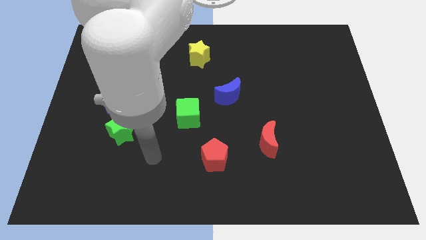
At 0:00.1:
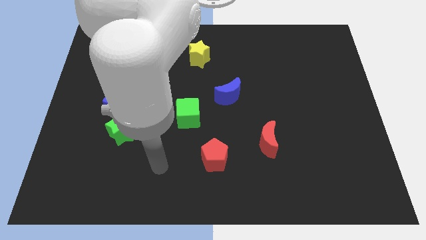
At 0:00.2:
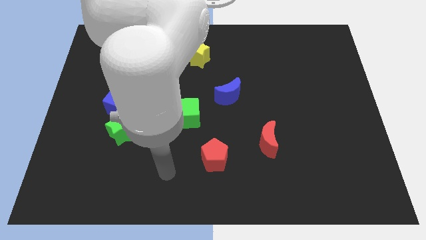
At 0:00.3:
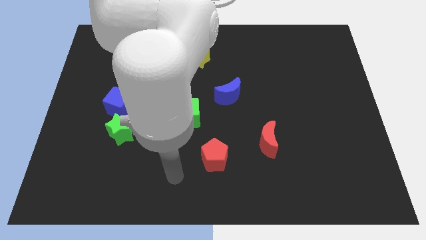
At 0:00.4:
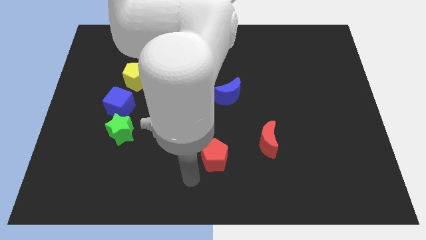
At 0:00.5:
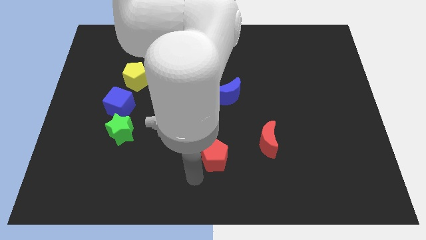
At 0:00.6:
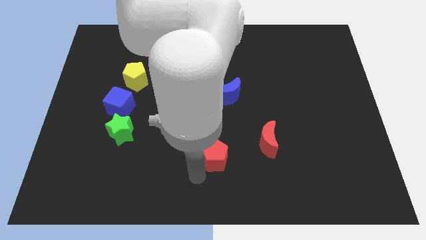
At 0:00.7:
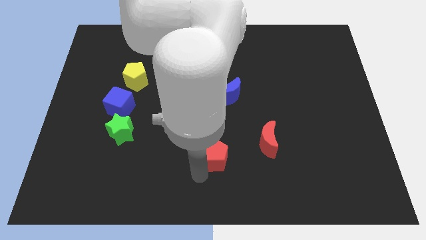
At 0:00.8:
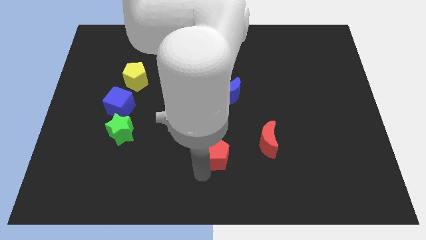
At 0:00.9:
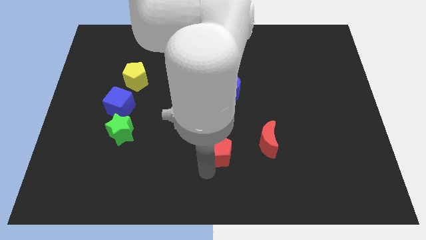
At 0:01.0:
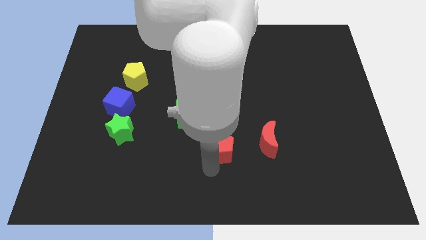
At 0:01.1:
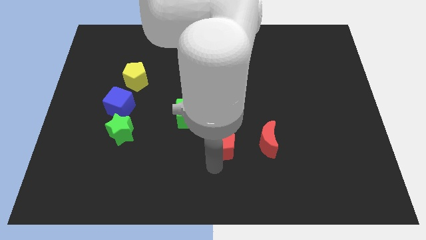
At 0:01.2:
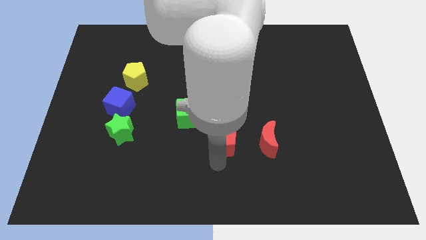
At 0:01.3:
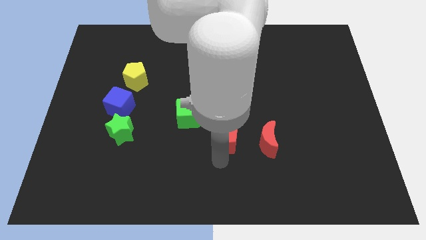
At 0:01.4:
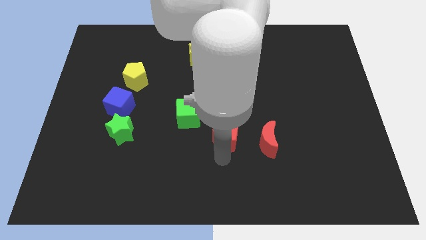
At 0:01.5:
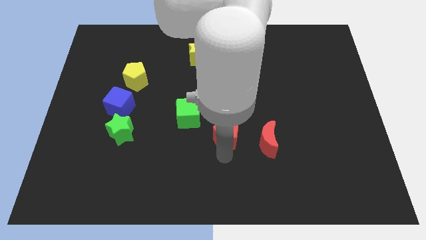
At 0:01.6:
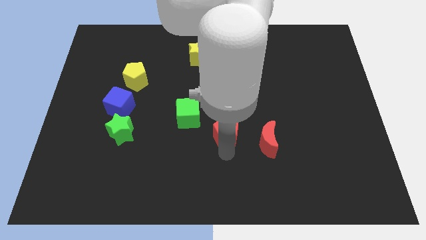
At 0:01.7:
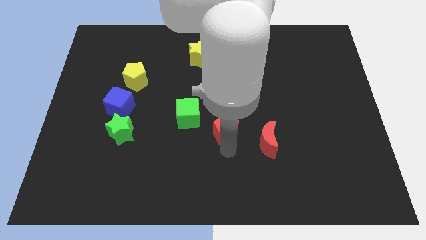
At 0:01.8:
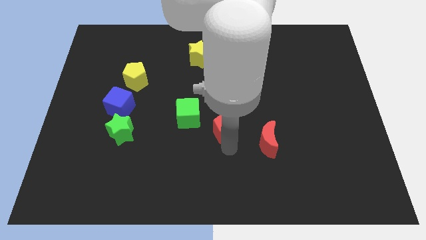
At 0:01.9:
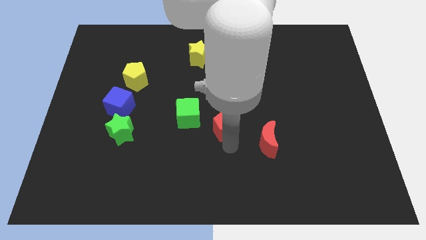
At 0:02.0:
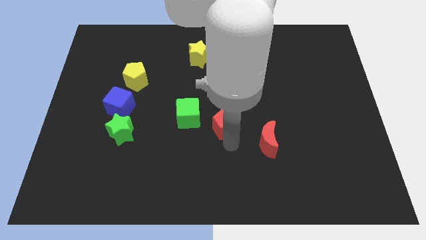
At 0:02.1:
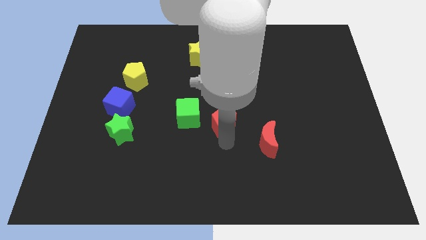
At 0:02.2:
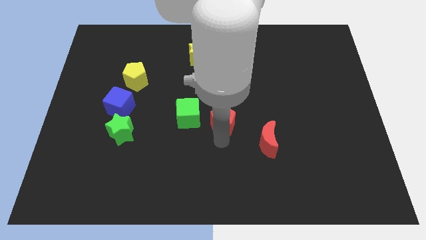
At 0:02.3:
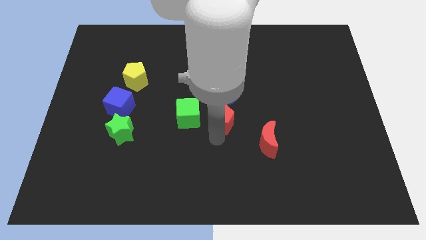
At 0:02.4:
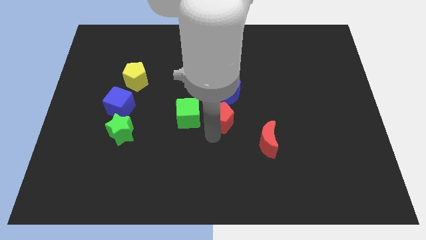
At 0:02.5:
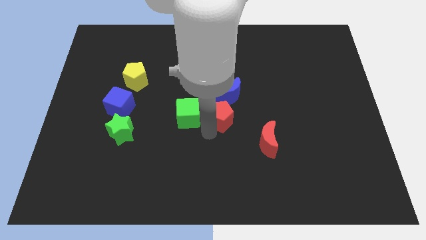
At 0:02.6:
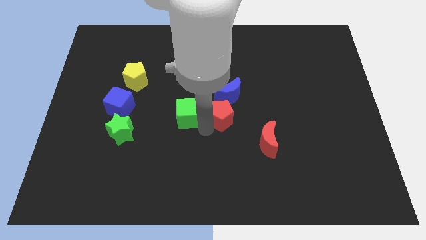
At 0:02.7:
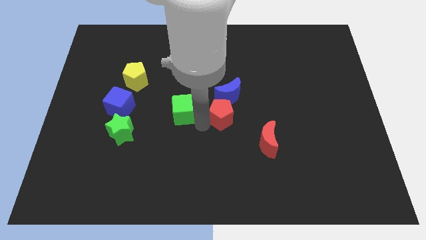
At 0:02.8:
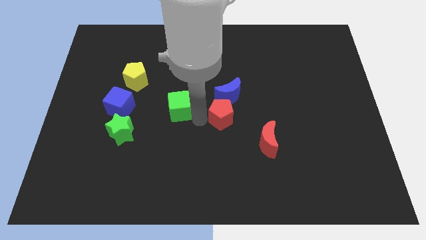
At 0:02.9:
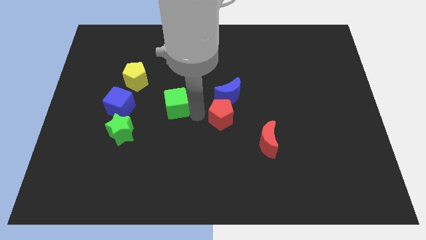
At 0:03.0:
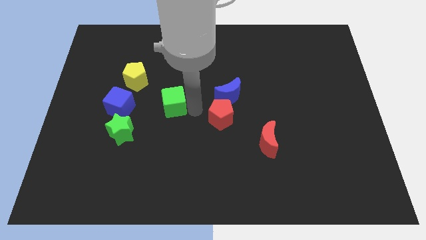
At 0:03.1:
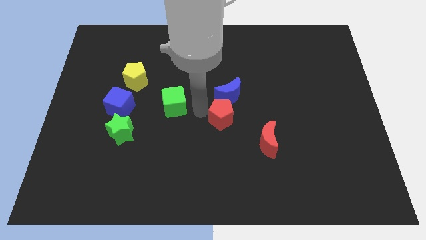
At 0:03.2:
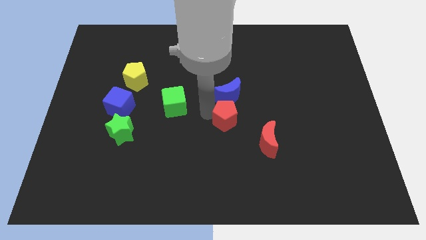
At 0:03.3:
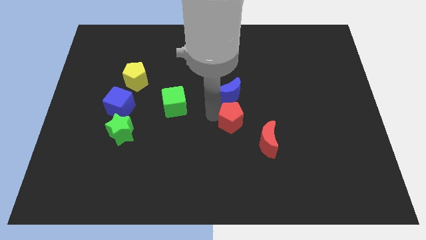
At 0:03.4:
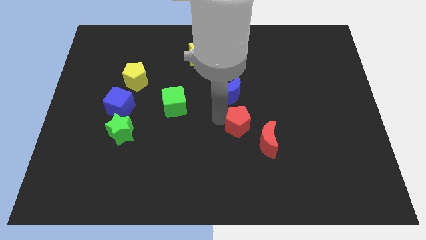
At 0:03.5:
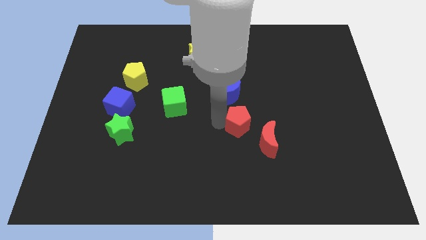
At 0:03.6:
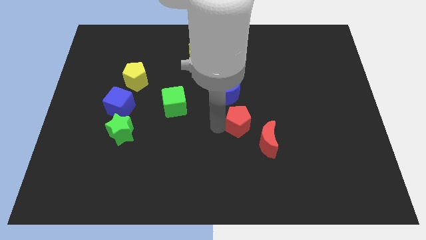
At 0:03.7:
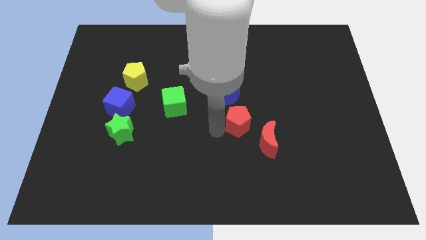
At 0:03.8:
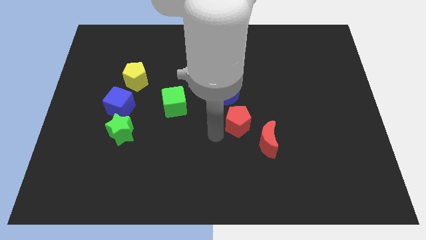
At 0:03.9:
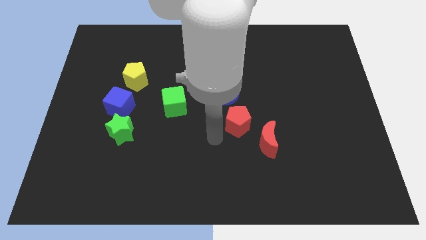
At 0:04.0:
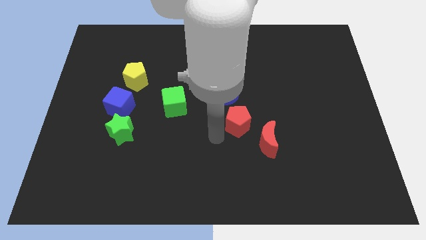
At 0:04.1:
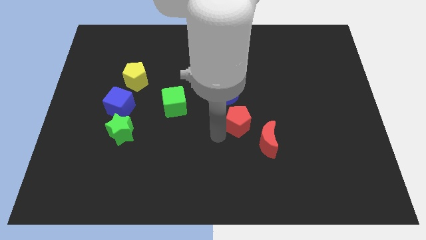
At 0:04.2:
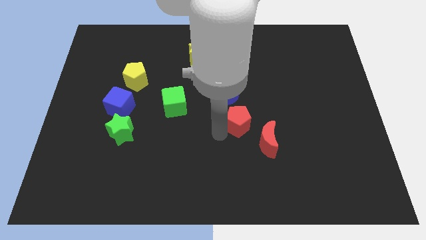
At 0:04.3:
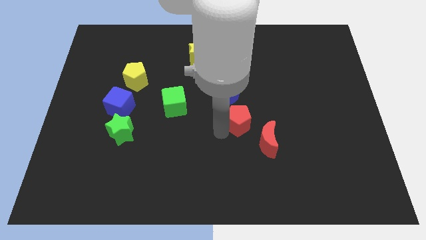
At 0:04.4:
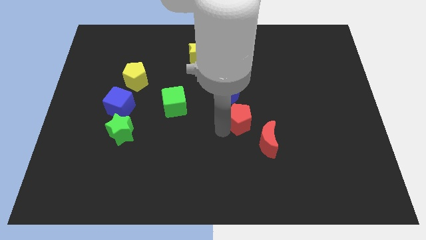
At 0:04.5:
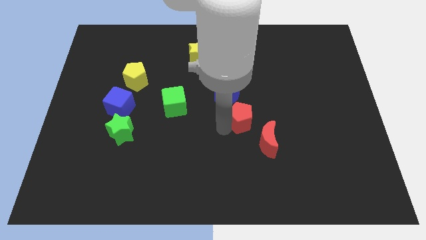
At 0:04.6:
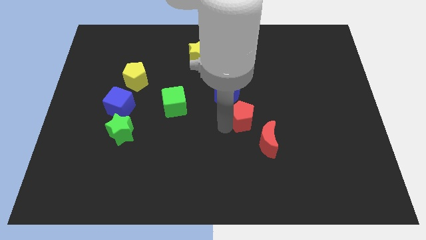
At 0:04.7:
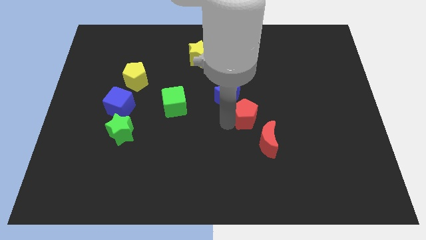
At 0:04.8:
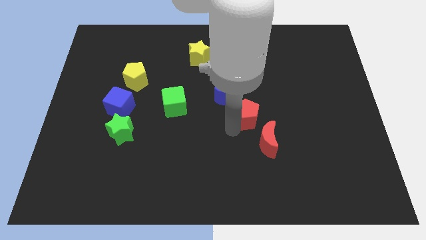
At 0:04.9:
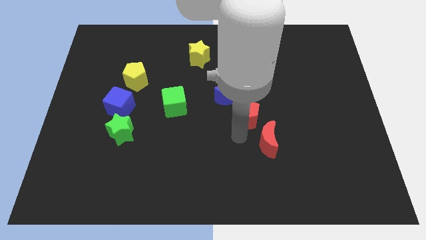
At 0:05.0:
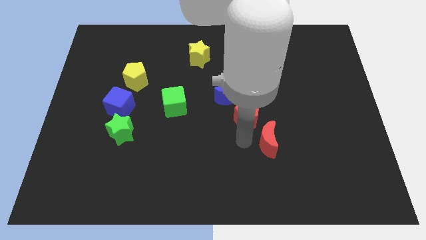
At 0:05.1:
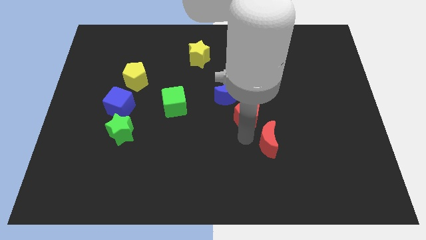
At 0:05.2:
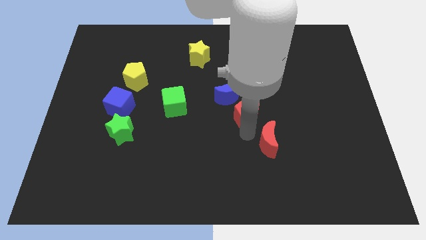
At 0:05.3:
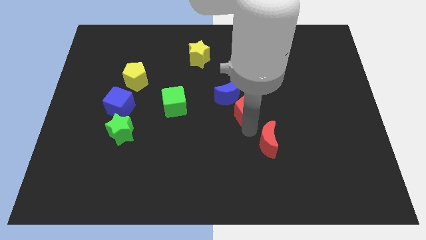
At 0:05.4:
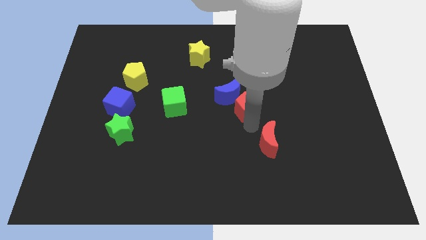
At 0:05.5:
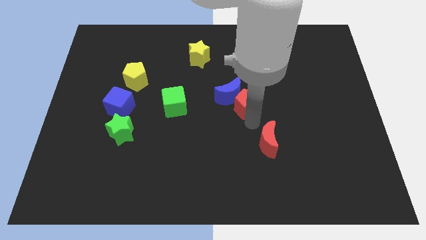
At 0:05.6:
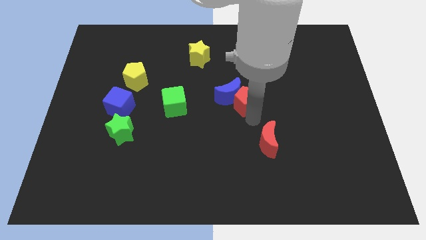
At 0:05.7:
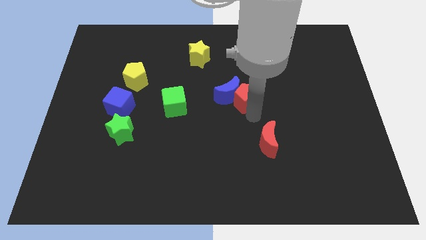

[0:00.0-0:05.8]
put the red pentagon to the top right side of the blue moon

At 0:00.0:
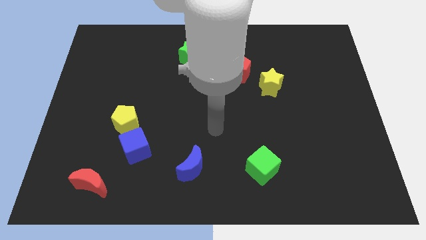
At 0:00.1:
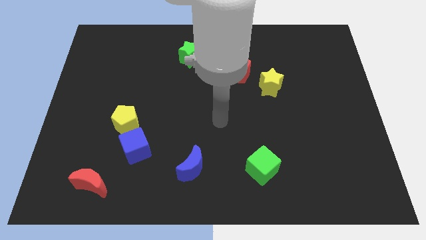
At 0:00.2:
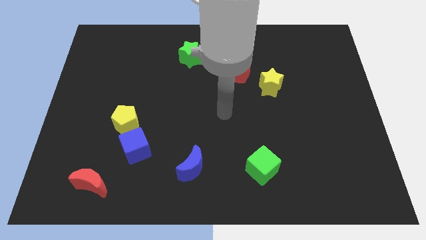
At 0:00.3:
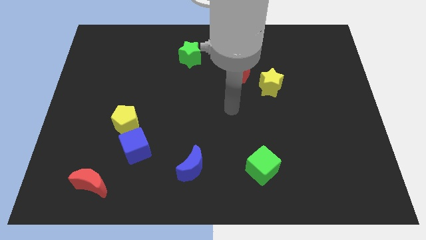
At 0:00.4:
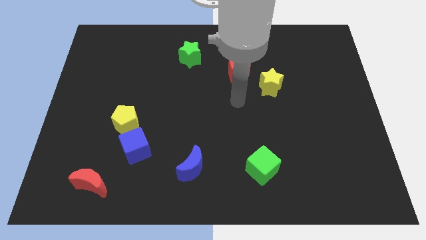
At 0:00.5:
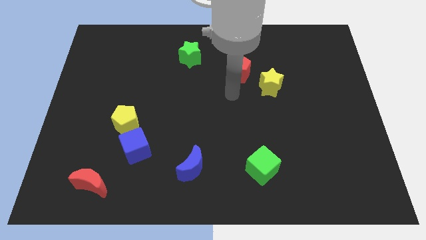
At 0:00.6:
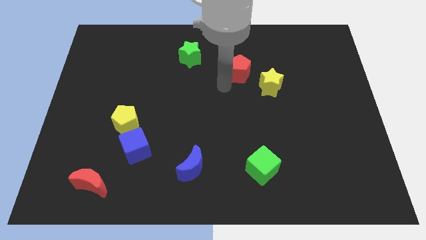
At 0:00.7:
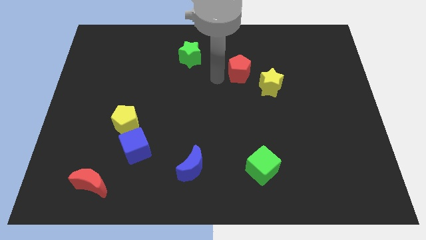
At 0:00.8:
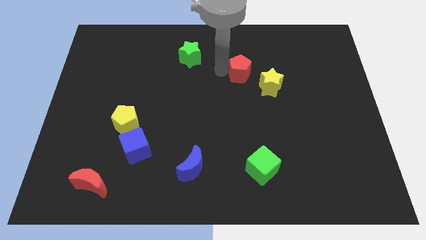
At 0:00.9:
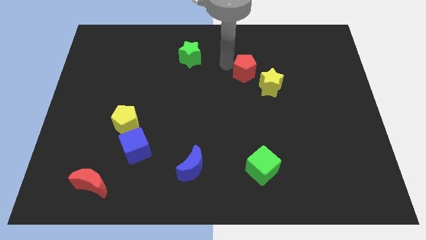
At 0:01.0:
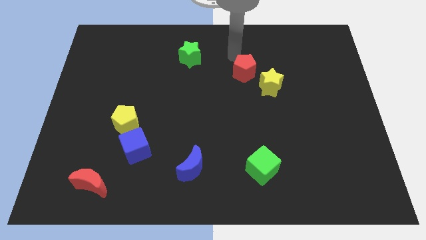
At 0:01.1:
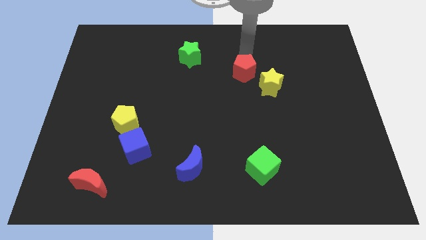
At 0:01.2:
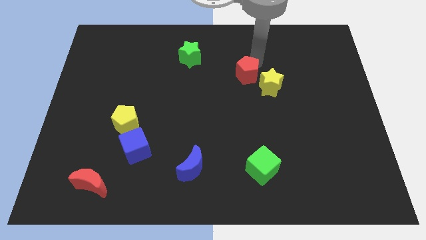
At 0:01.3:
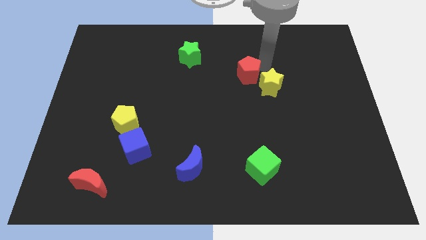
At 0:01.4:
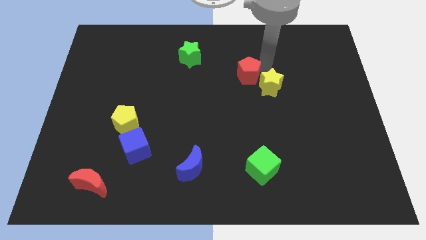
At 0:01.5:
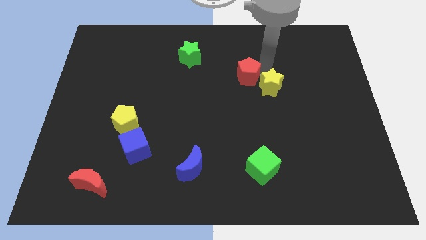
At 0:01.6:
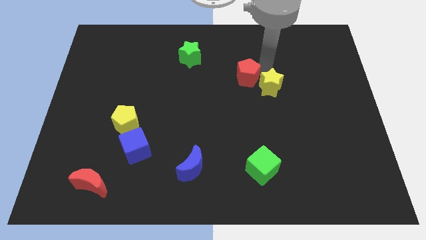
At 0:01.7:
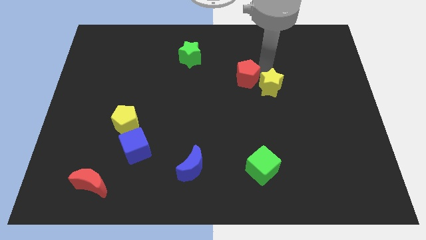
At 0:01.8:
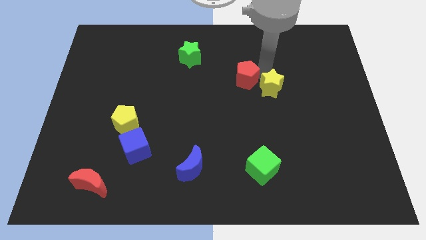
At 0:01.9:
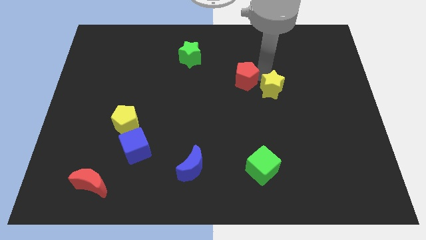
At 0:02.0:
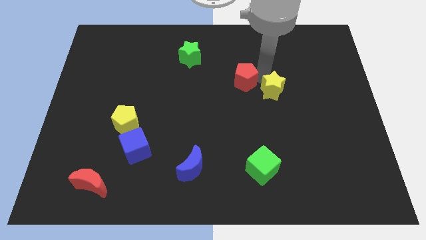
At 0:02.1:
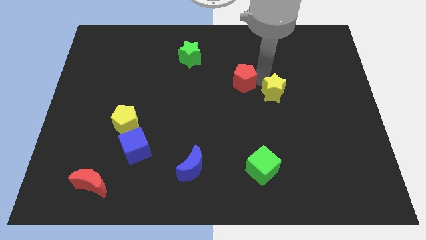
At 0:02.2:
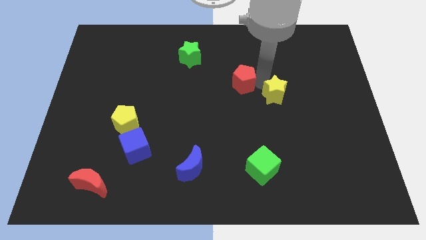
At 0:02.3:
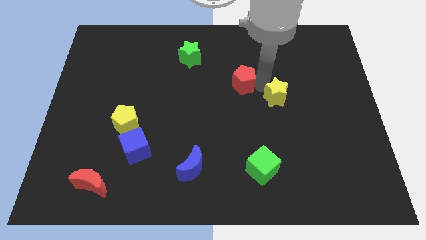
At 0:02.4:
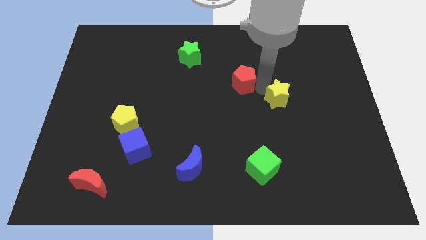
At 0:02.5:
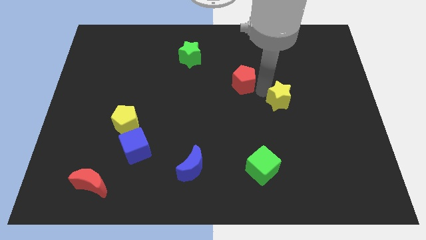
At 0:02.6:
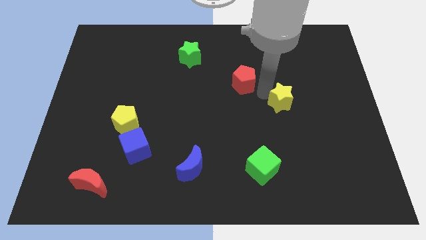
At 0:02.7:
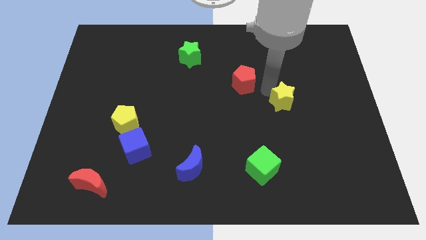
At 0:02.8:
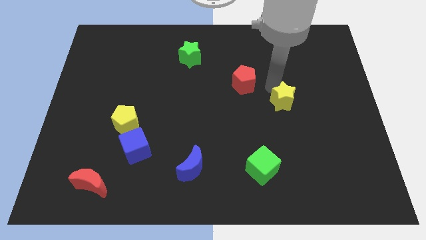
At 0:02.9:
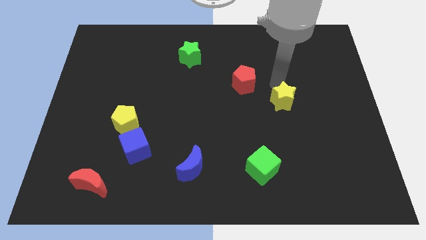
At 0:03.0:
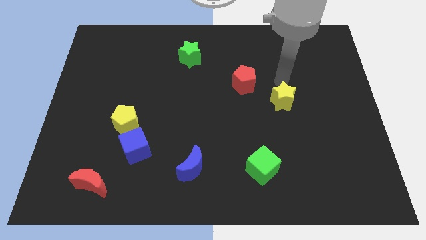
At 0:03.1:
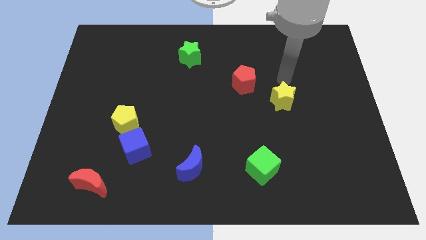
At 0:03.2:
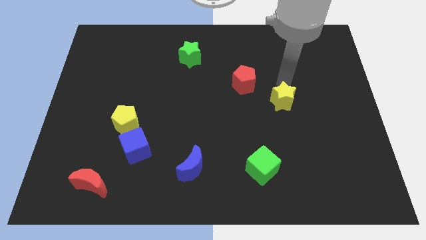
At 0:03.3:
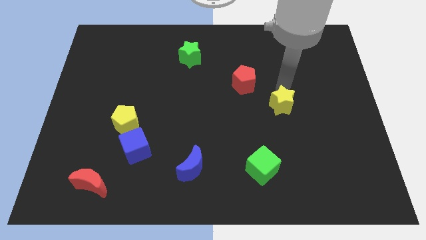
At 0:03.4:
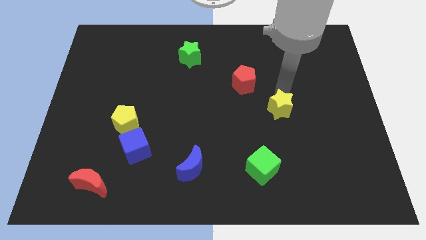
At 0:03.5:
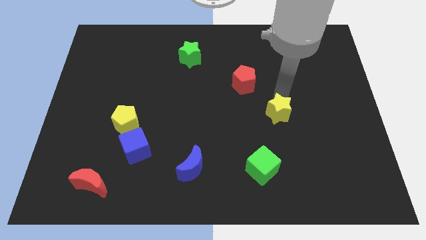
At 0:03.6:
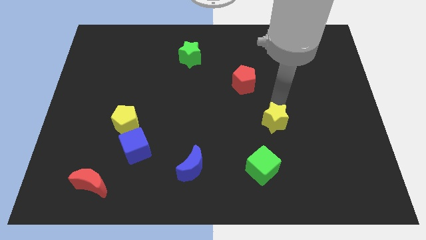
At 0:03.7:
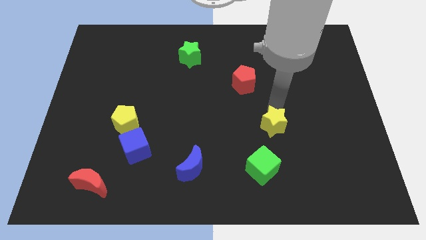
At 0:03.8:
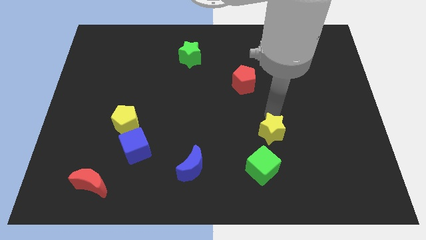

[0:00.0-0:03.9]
push the yellow star to the top right side of the green cube
